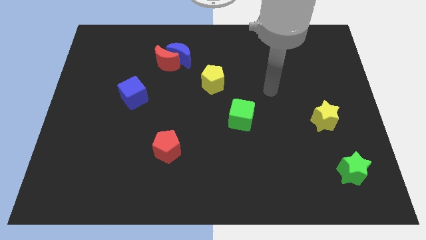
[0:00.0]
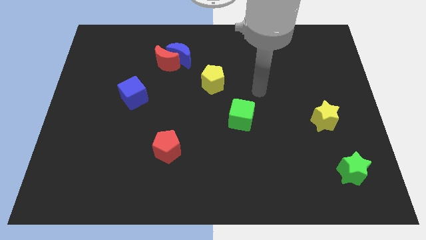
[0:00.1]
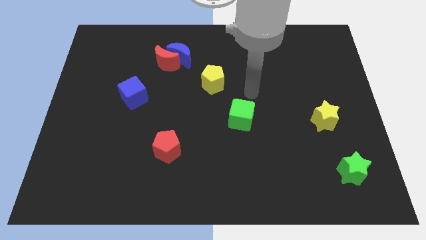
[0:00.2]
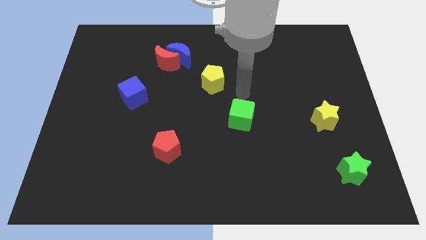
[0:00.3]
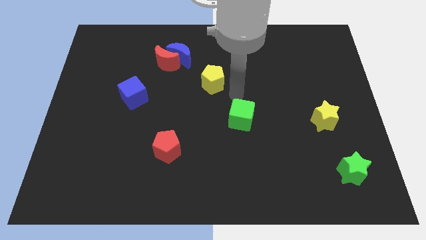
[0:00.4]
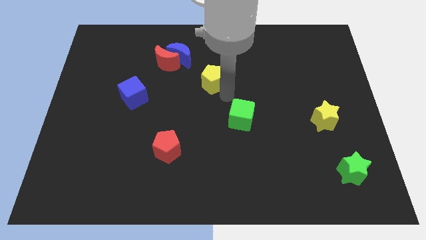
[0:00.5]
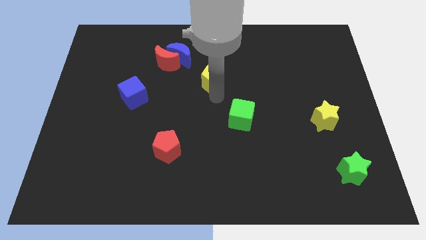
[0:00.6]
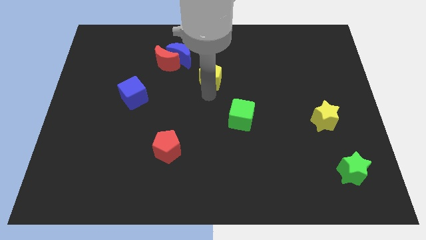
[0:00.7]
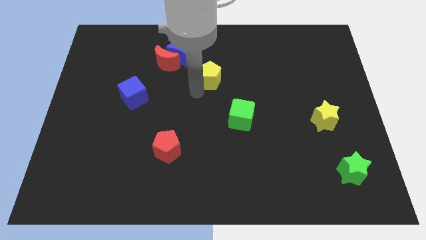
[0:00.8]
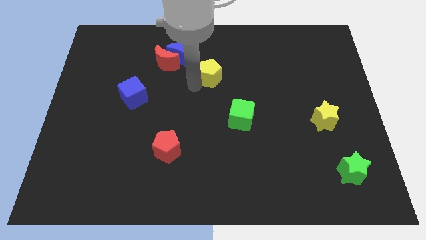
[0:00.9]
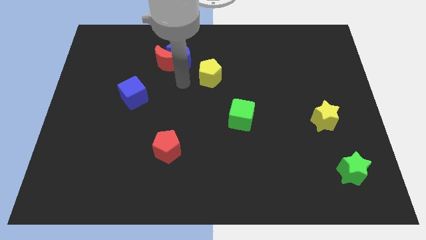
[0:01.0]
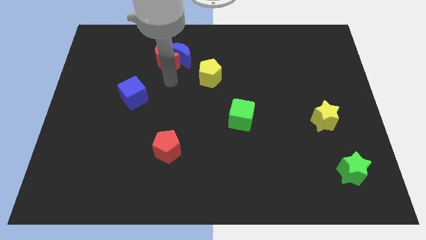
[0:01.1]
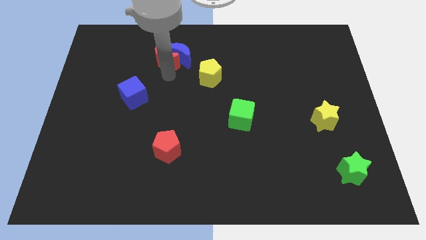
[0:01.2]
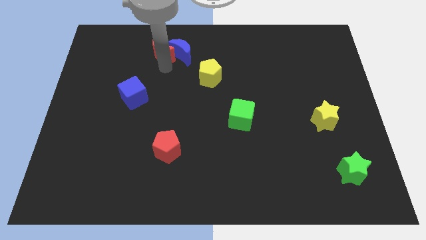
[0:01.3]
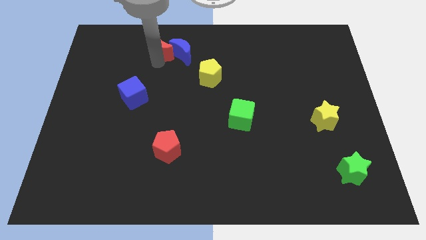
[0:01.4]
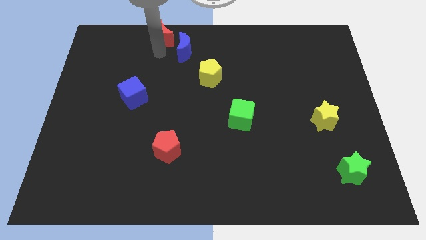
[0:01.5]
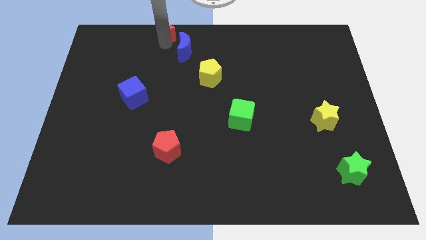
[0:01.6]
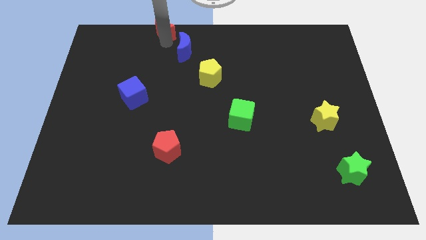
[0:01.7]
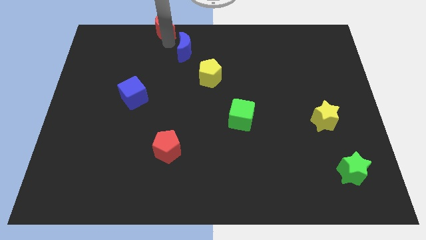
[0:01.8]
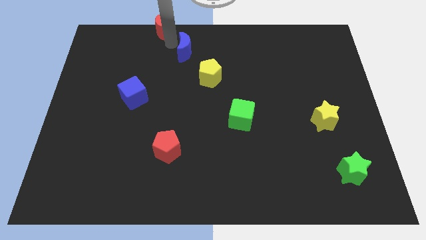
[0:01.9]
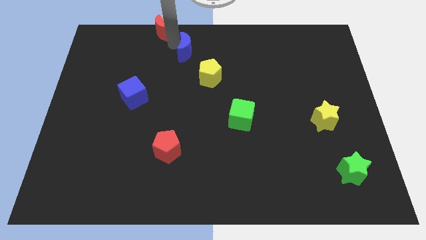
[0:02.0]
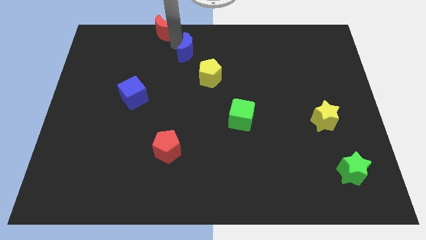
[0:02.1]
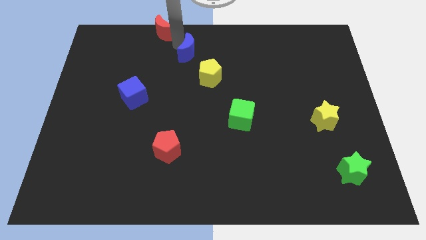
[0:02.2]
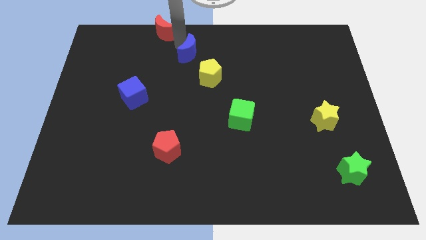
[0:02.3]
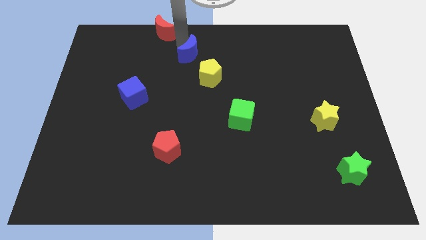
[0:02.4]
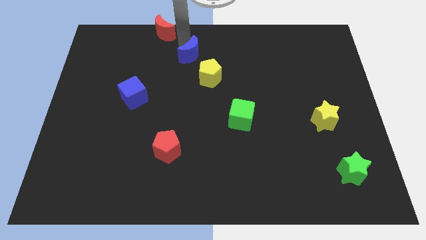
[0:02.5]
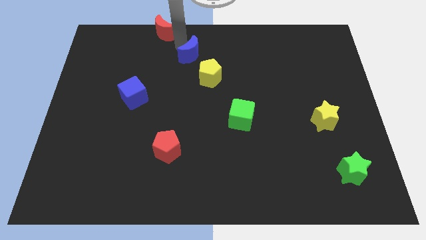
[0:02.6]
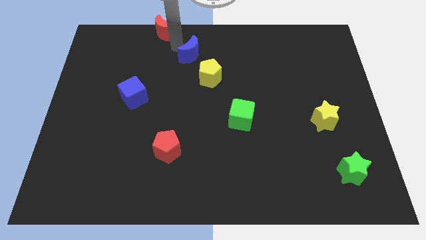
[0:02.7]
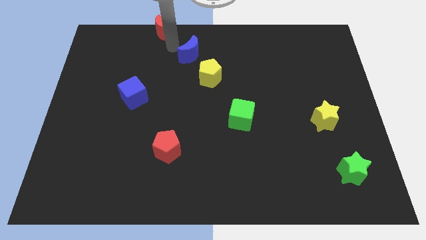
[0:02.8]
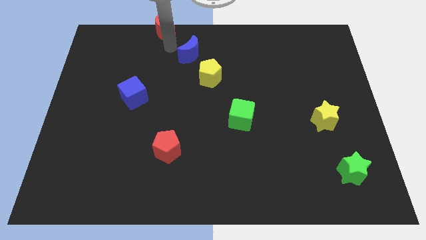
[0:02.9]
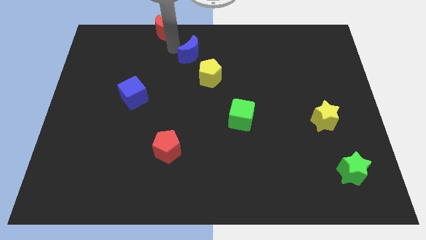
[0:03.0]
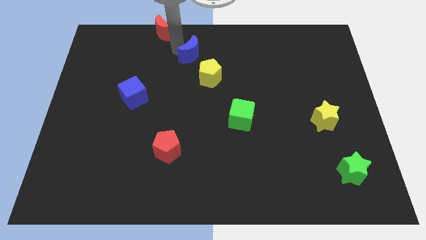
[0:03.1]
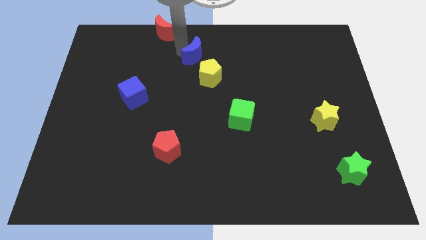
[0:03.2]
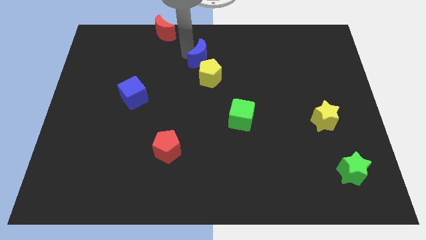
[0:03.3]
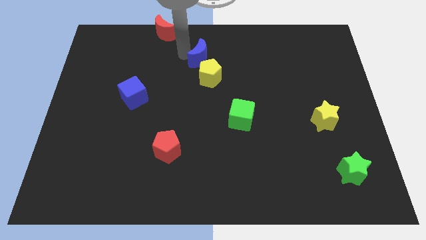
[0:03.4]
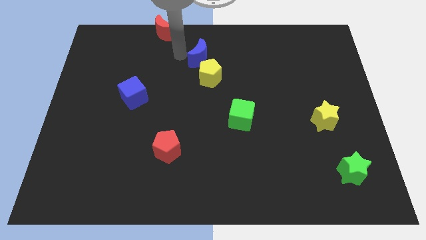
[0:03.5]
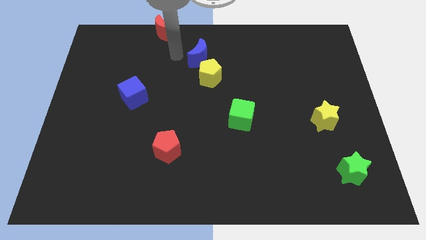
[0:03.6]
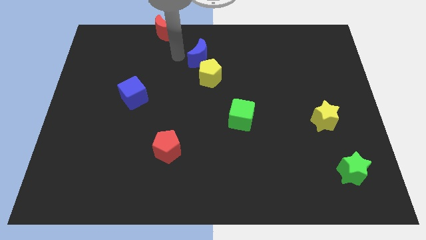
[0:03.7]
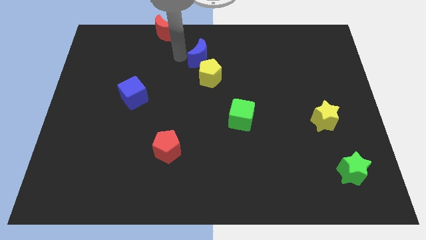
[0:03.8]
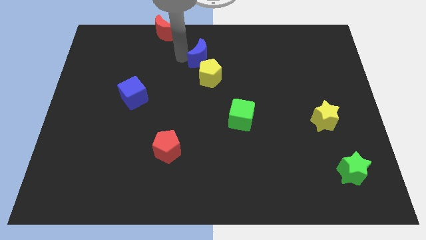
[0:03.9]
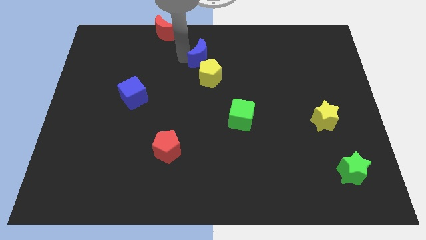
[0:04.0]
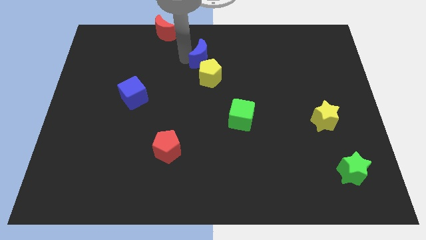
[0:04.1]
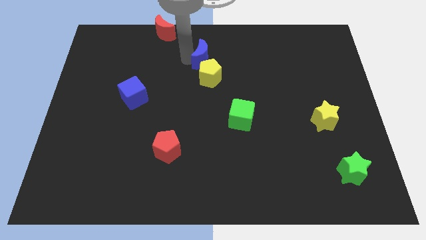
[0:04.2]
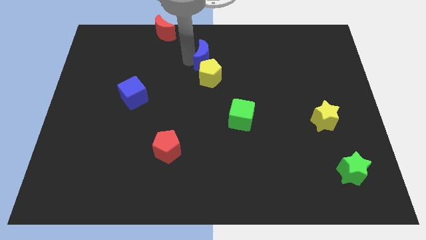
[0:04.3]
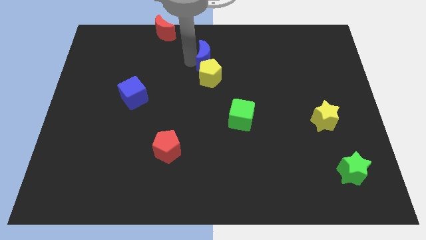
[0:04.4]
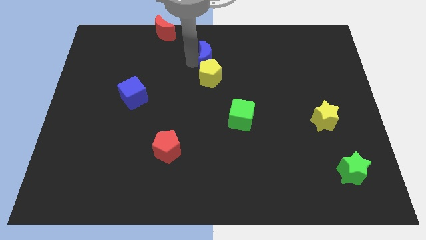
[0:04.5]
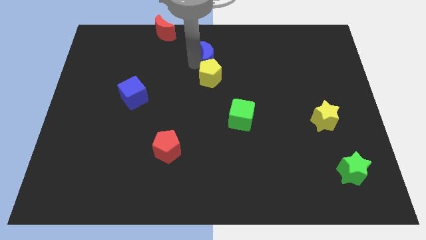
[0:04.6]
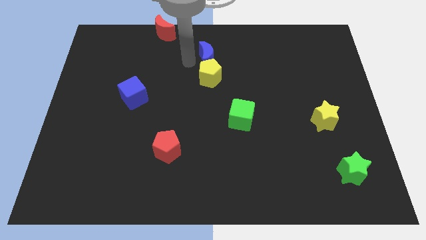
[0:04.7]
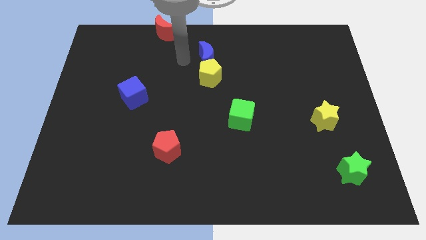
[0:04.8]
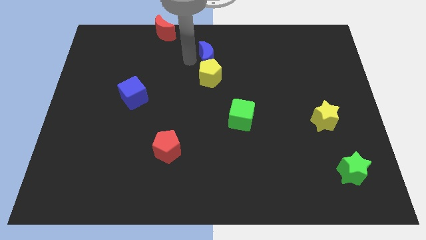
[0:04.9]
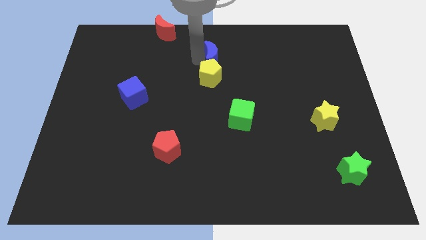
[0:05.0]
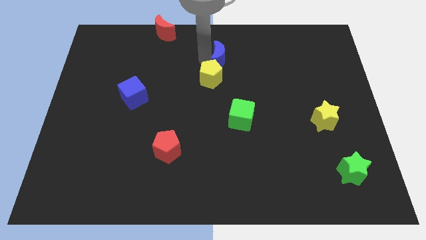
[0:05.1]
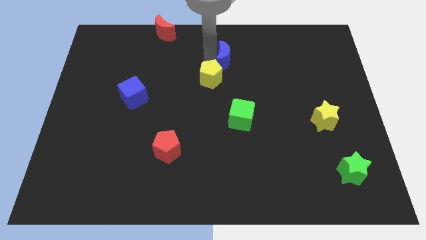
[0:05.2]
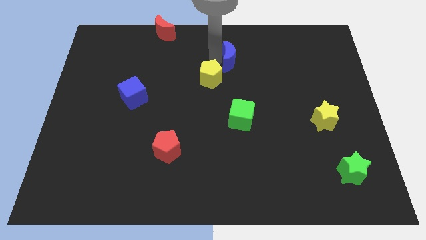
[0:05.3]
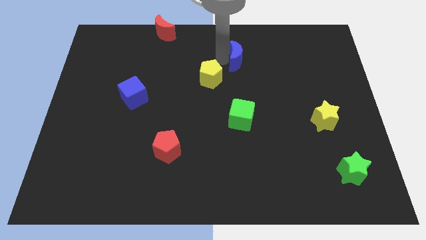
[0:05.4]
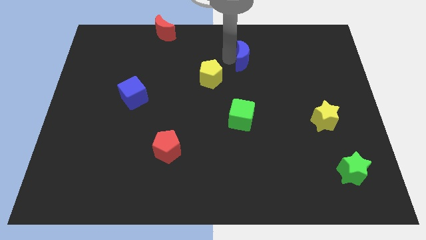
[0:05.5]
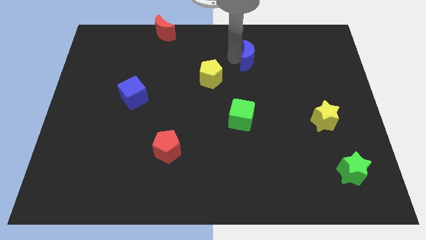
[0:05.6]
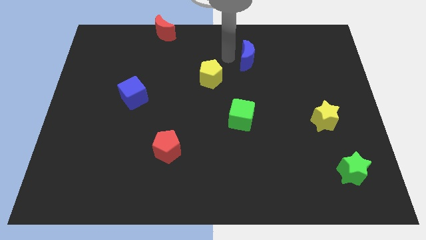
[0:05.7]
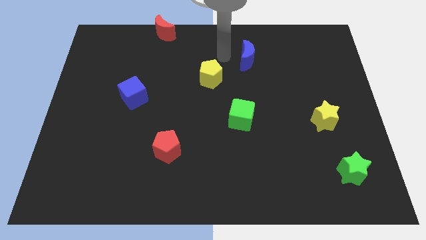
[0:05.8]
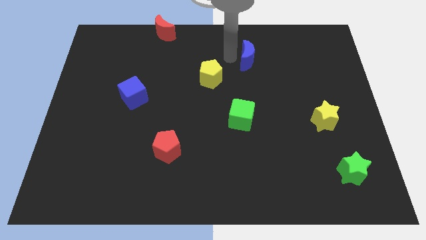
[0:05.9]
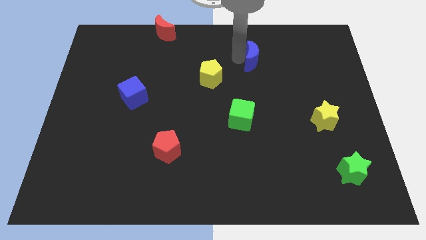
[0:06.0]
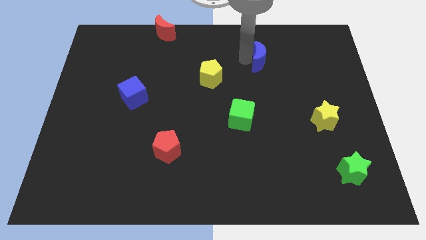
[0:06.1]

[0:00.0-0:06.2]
slide the blue moon right

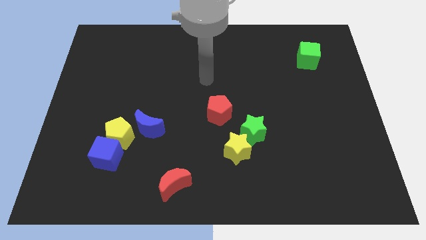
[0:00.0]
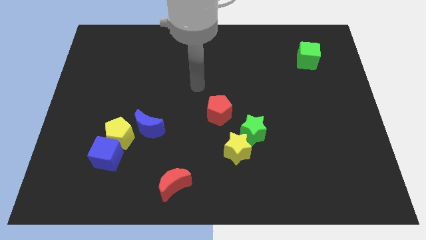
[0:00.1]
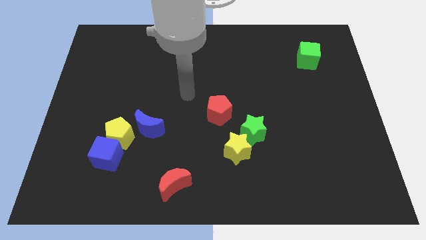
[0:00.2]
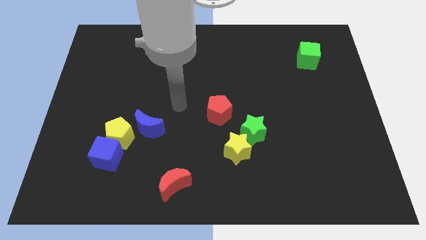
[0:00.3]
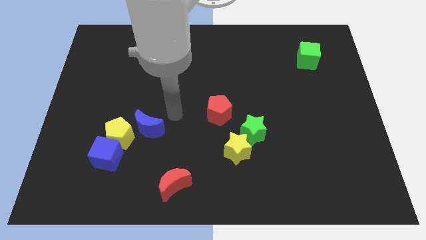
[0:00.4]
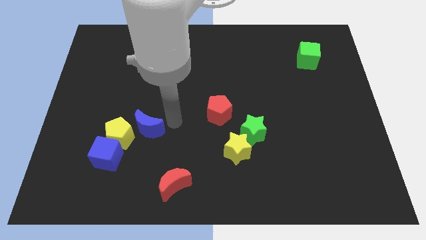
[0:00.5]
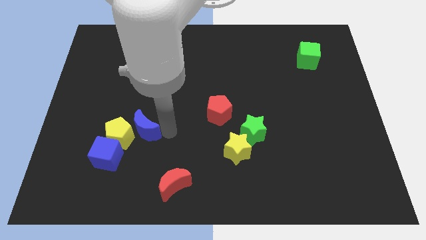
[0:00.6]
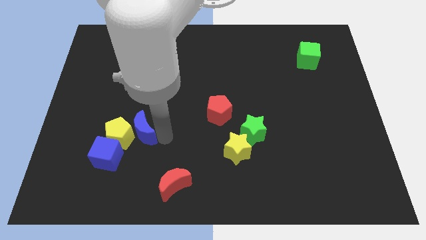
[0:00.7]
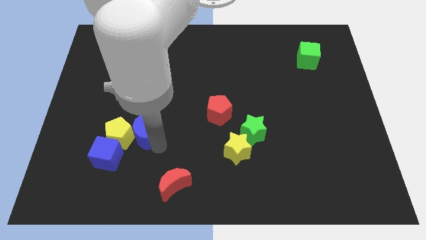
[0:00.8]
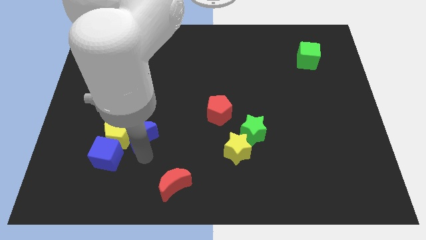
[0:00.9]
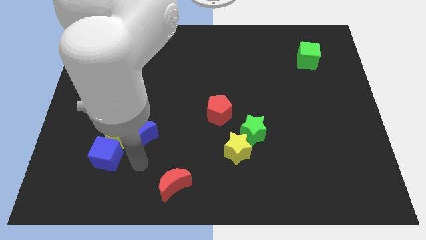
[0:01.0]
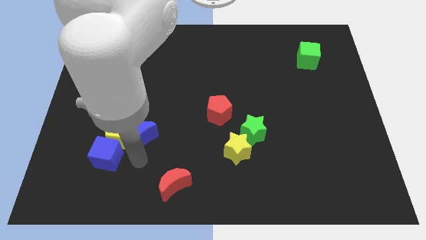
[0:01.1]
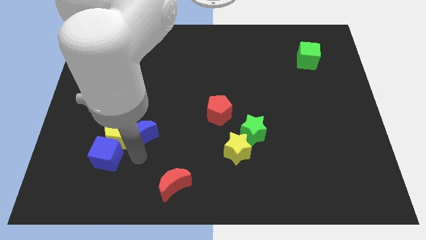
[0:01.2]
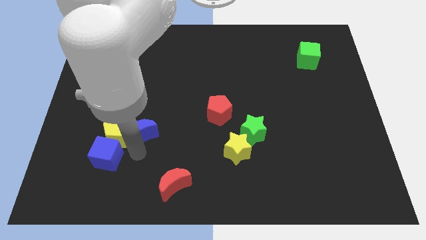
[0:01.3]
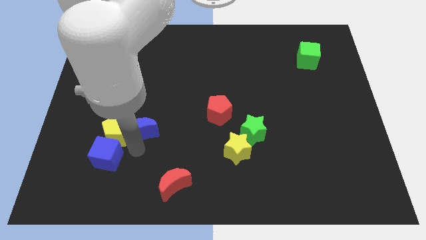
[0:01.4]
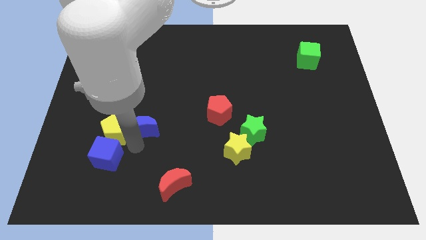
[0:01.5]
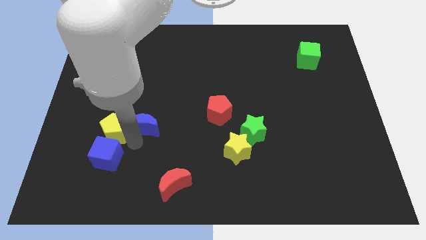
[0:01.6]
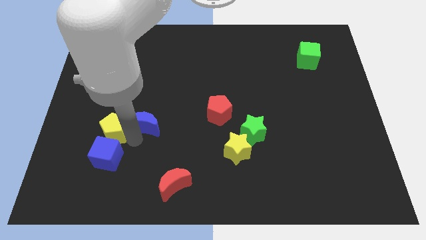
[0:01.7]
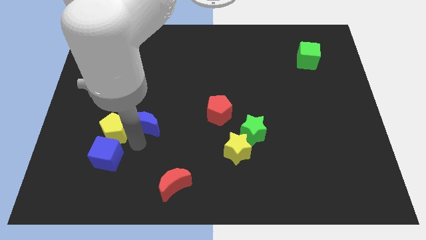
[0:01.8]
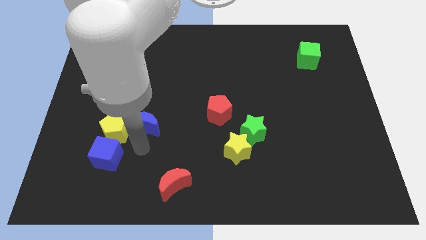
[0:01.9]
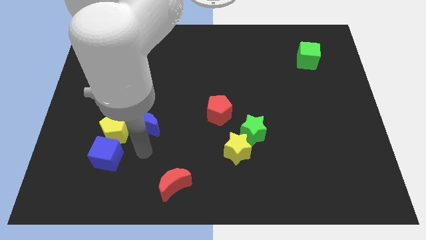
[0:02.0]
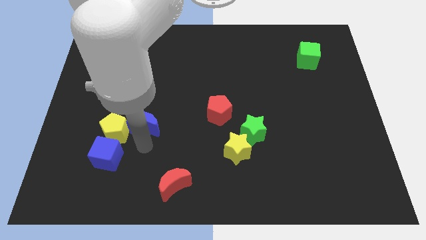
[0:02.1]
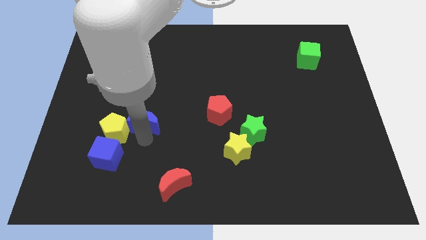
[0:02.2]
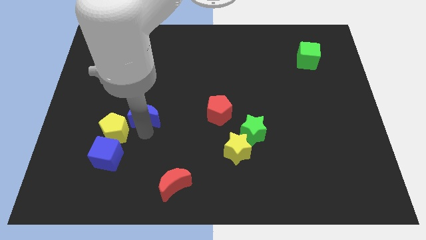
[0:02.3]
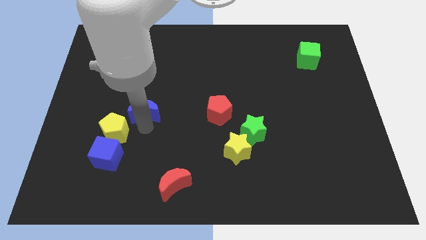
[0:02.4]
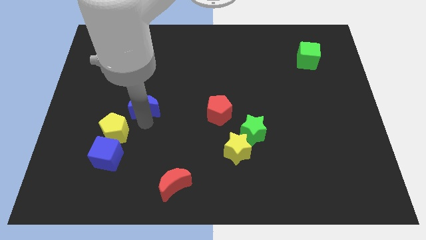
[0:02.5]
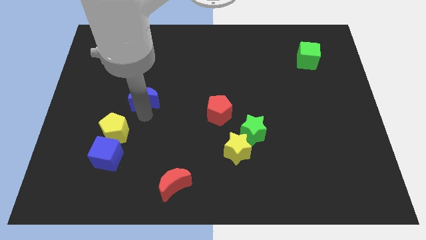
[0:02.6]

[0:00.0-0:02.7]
push the blue moon a little bit up
